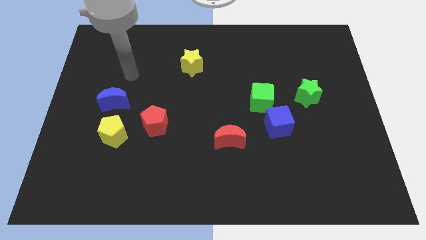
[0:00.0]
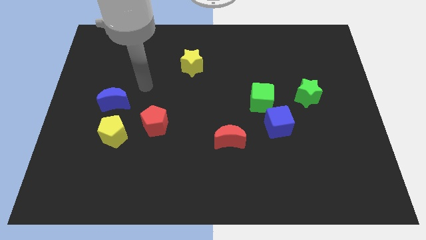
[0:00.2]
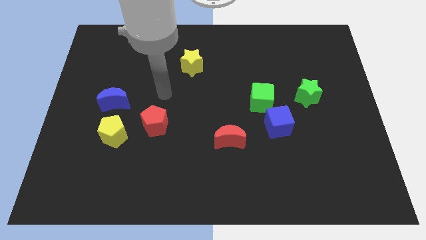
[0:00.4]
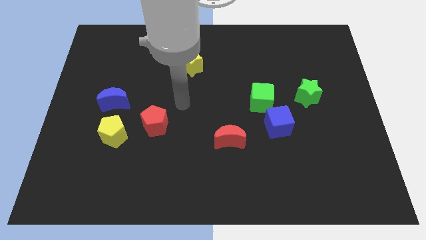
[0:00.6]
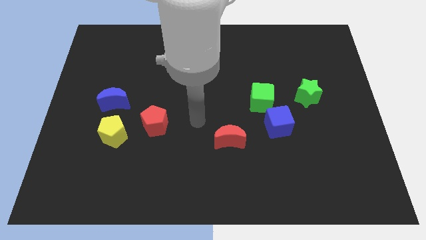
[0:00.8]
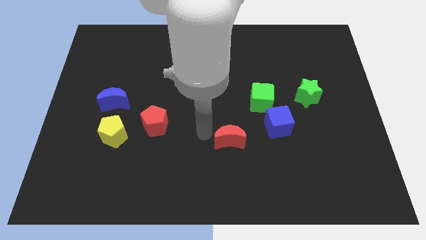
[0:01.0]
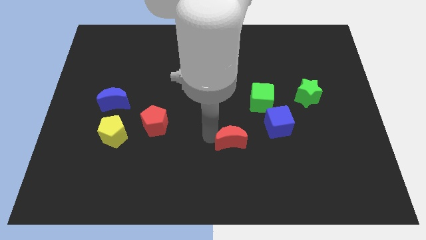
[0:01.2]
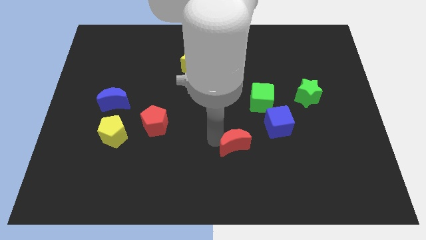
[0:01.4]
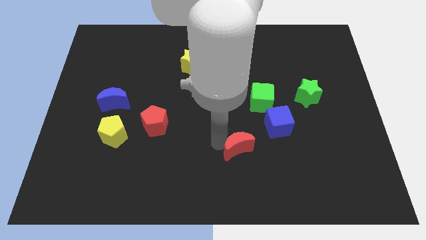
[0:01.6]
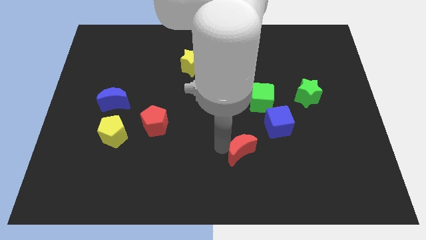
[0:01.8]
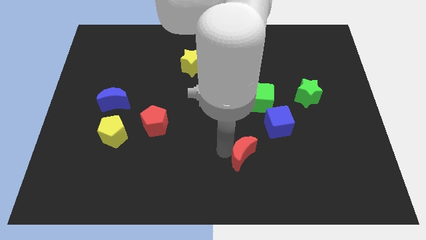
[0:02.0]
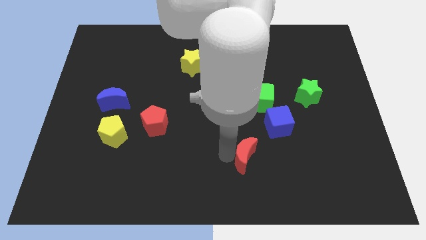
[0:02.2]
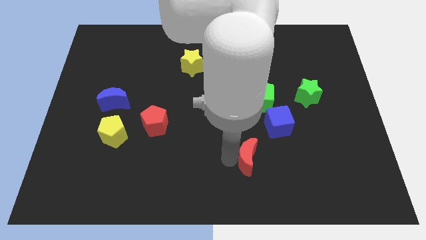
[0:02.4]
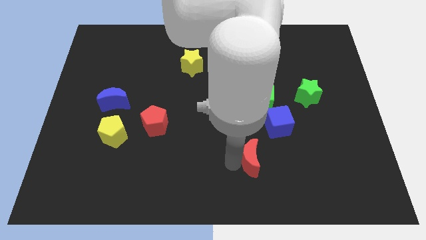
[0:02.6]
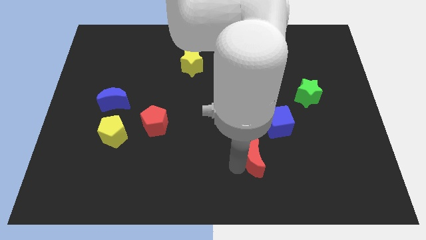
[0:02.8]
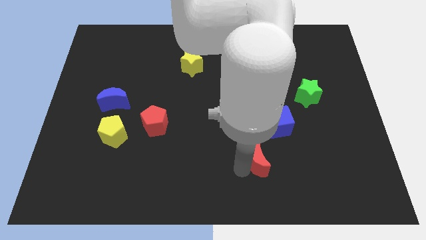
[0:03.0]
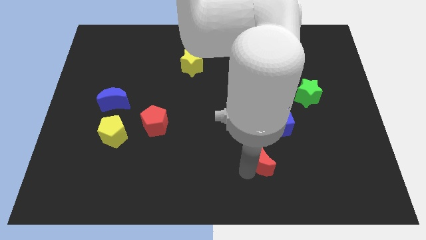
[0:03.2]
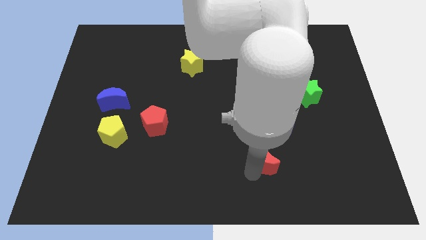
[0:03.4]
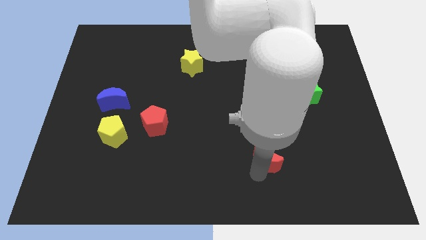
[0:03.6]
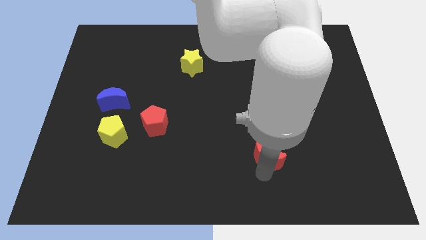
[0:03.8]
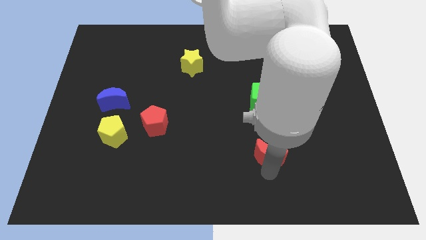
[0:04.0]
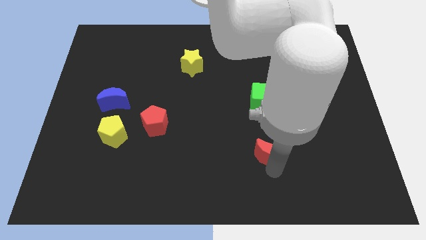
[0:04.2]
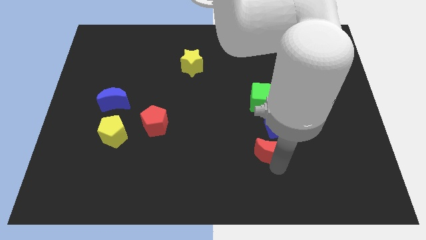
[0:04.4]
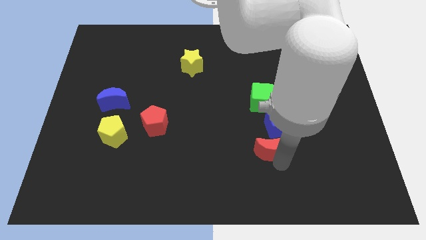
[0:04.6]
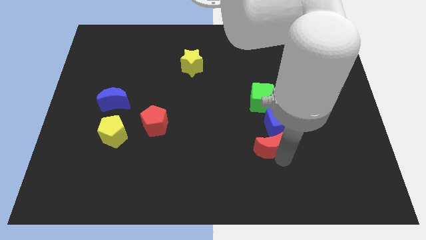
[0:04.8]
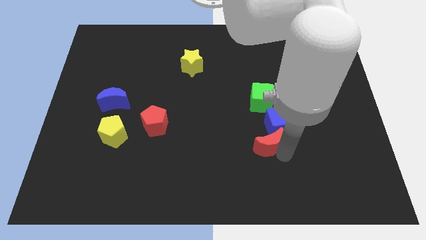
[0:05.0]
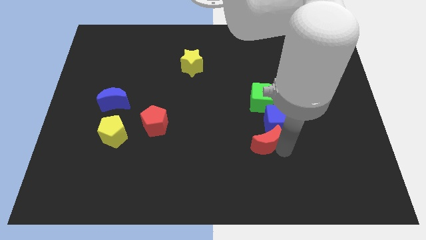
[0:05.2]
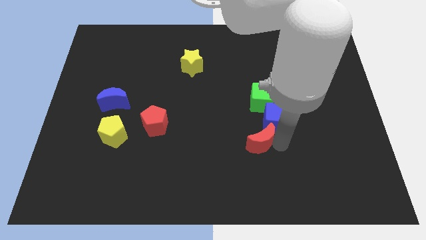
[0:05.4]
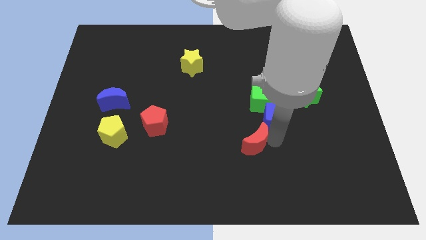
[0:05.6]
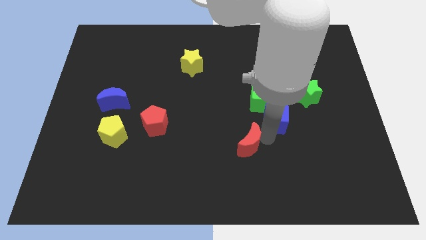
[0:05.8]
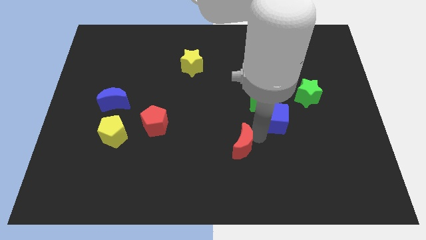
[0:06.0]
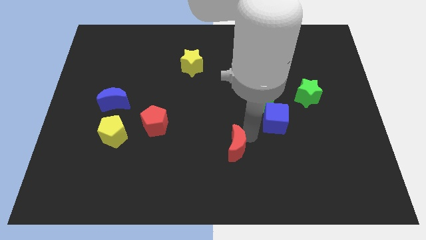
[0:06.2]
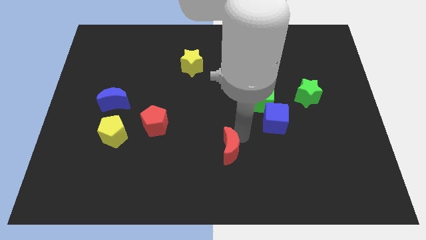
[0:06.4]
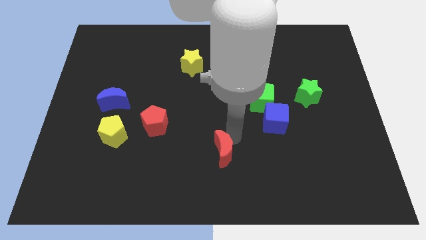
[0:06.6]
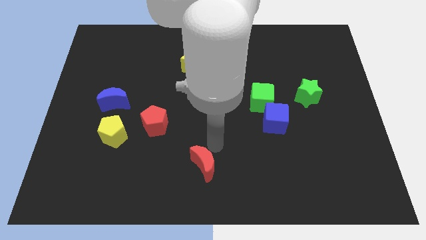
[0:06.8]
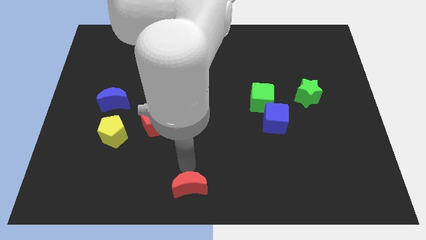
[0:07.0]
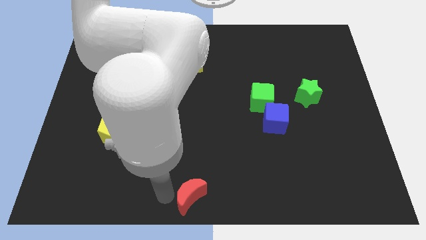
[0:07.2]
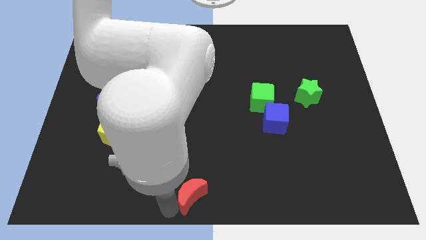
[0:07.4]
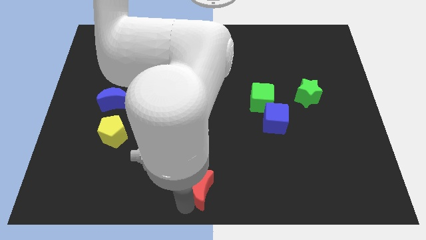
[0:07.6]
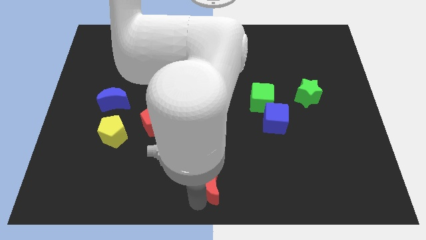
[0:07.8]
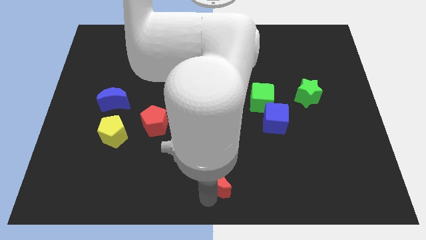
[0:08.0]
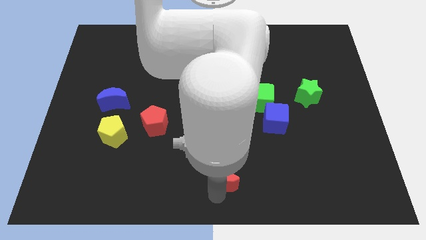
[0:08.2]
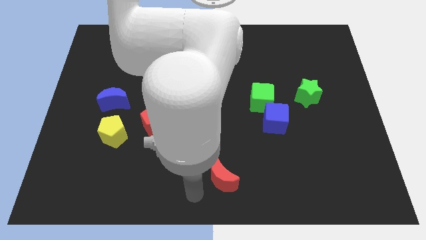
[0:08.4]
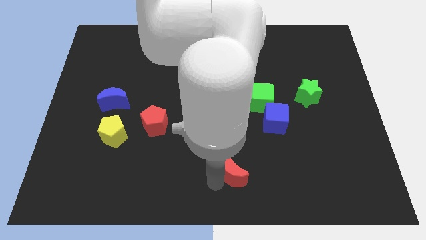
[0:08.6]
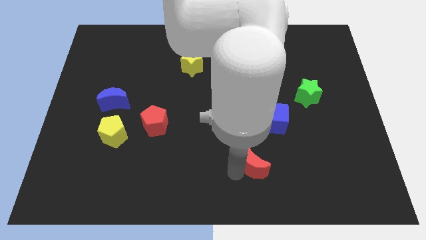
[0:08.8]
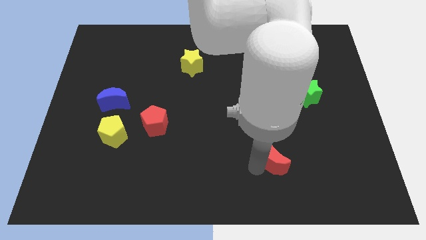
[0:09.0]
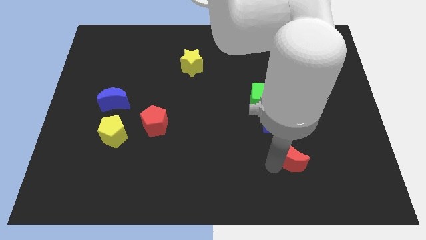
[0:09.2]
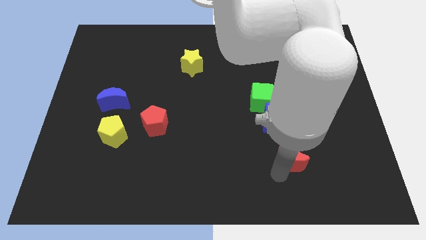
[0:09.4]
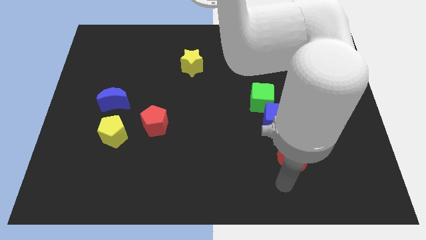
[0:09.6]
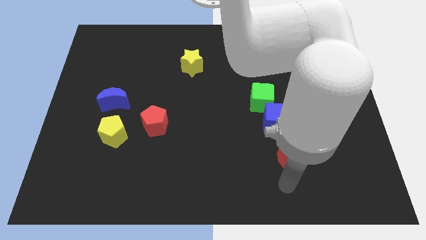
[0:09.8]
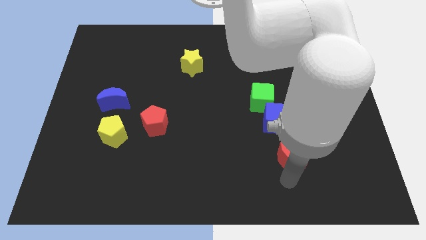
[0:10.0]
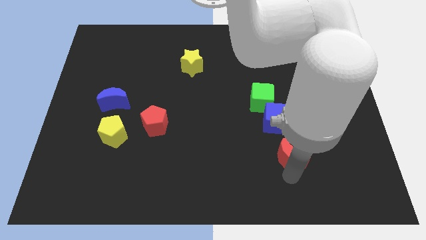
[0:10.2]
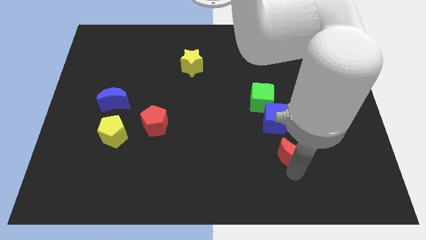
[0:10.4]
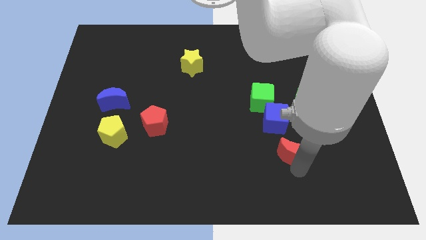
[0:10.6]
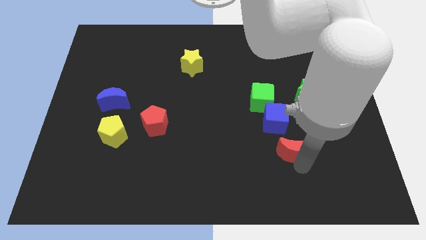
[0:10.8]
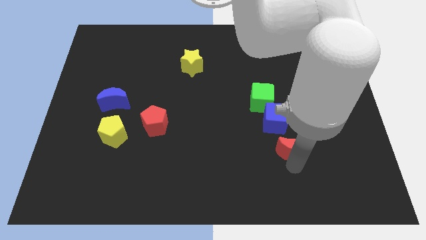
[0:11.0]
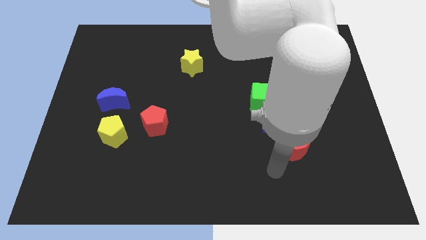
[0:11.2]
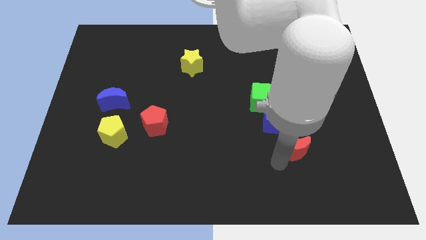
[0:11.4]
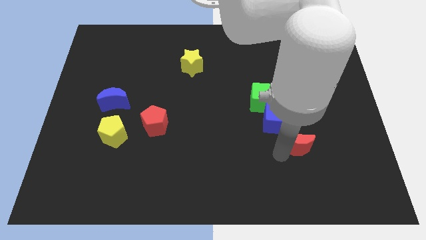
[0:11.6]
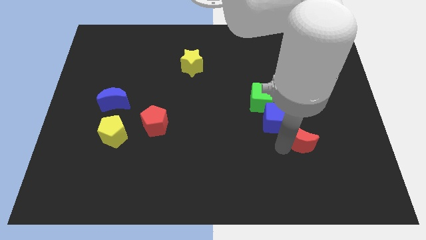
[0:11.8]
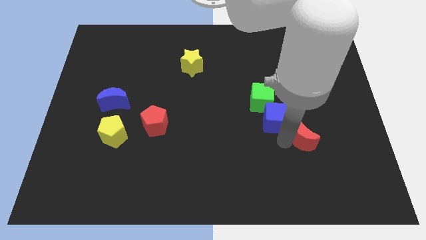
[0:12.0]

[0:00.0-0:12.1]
slide the red moon right of the blue cube

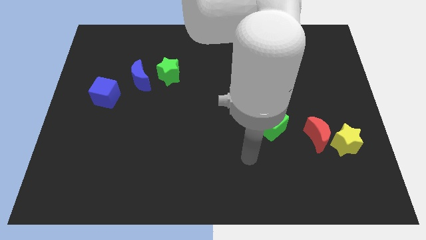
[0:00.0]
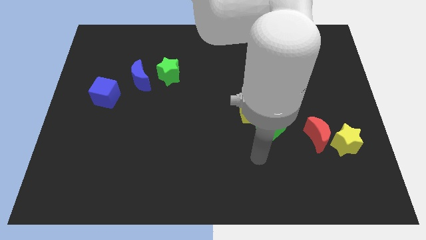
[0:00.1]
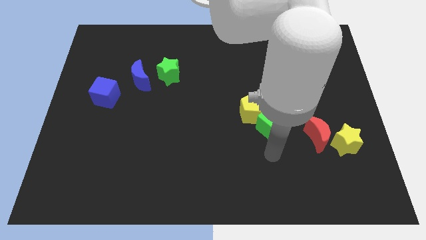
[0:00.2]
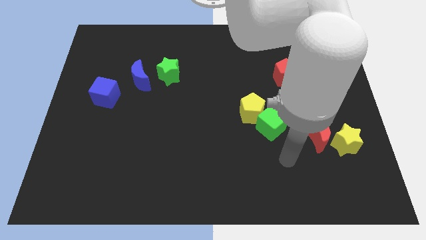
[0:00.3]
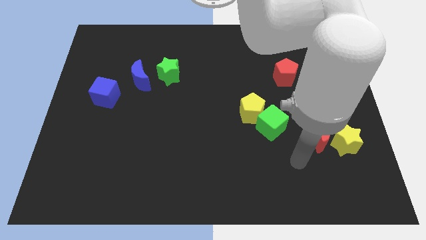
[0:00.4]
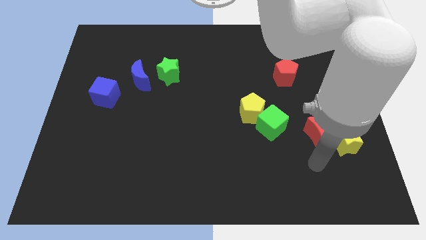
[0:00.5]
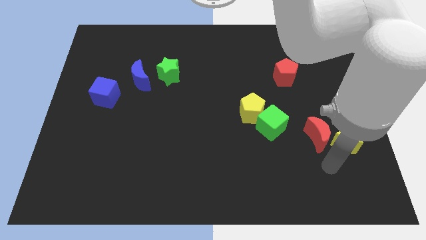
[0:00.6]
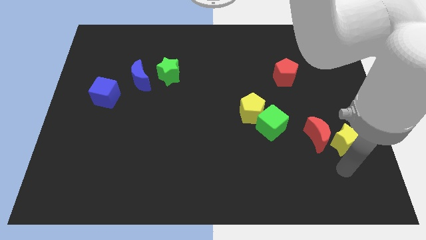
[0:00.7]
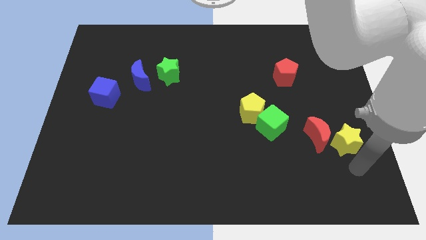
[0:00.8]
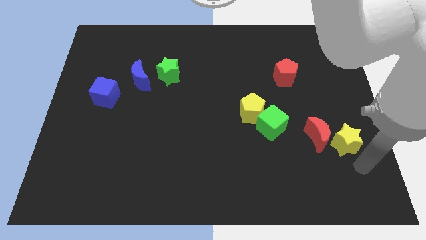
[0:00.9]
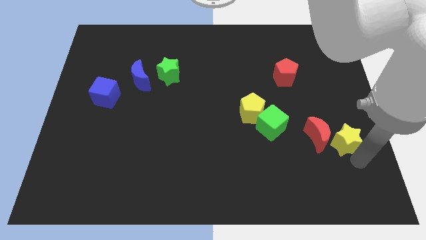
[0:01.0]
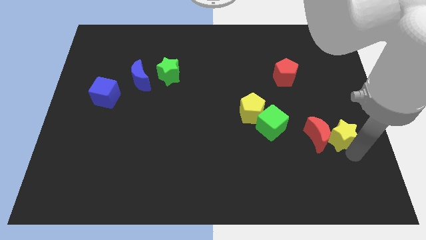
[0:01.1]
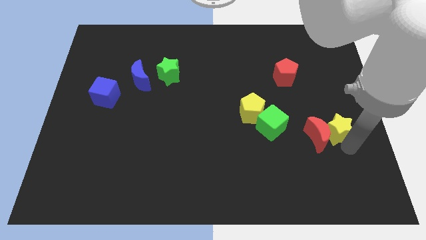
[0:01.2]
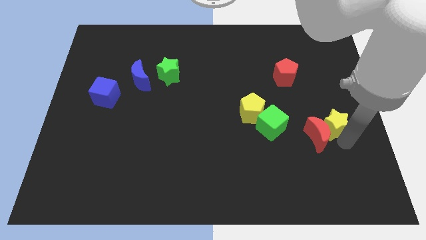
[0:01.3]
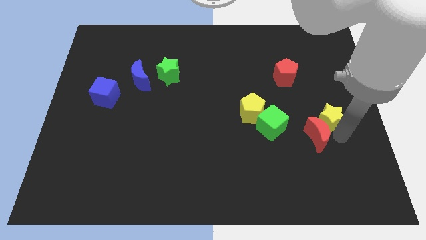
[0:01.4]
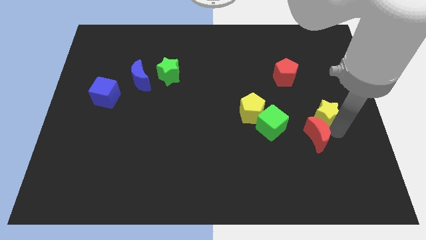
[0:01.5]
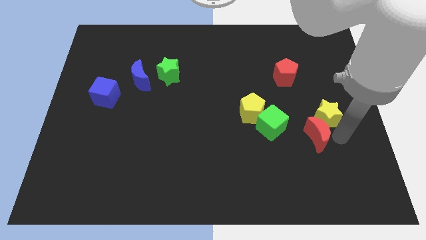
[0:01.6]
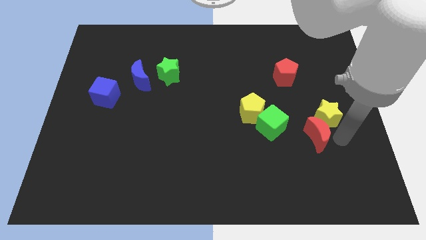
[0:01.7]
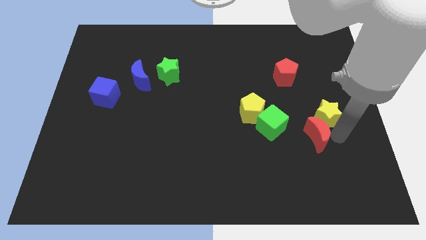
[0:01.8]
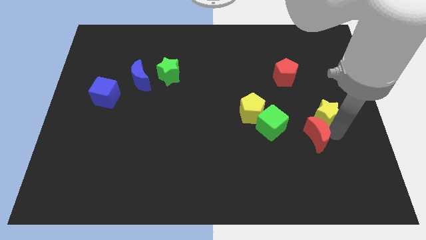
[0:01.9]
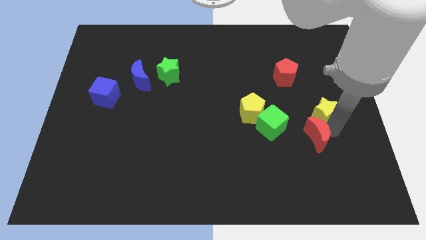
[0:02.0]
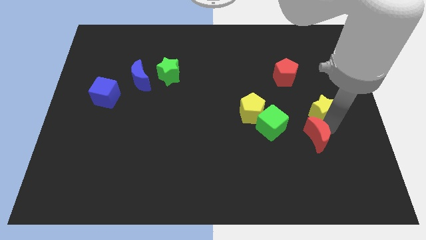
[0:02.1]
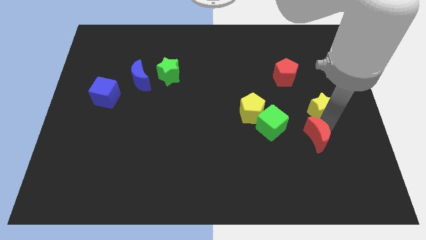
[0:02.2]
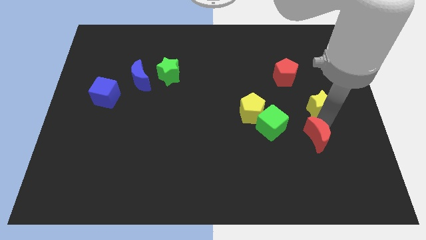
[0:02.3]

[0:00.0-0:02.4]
slide the yellow star to the bottom right of the red pentagon
